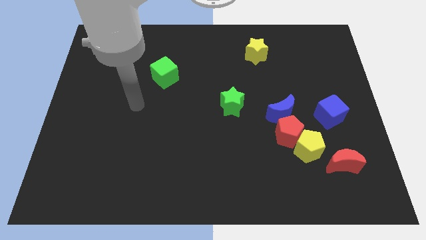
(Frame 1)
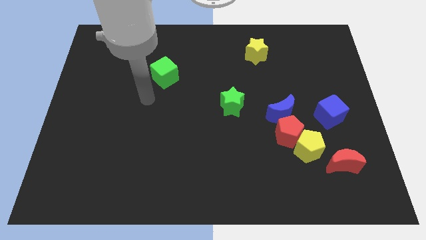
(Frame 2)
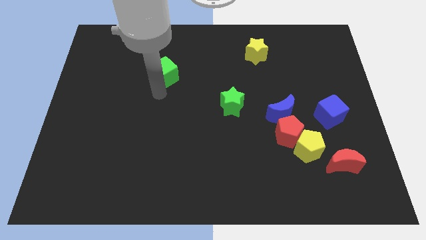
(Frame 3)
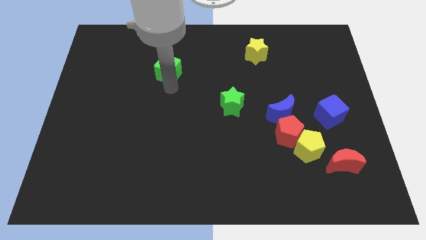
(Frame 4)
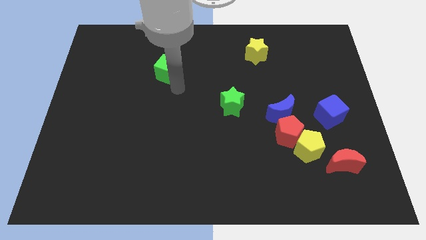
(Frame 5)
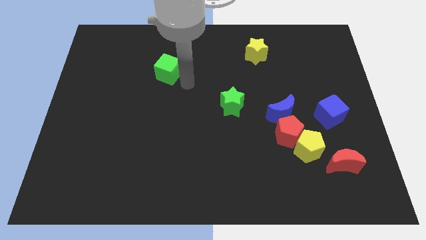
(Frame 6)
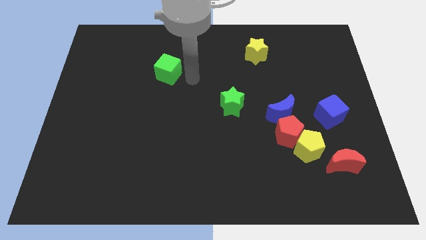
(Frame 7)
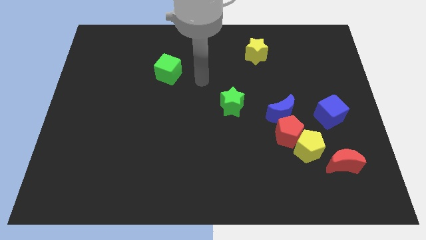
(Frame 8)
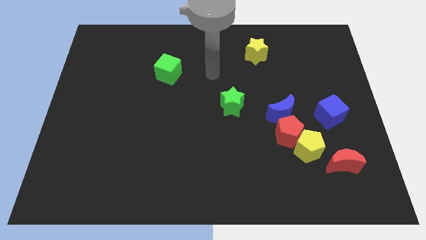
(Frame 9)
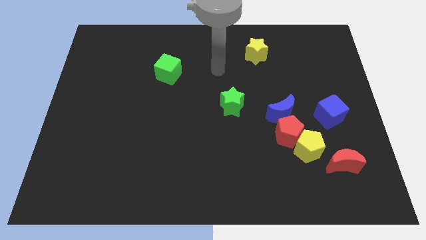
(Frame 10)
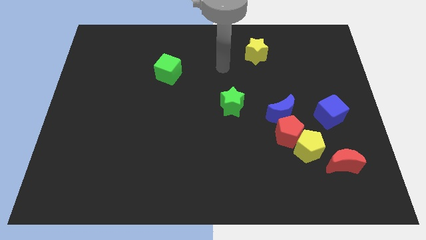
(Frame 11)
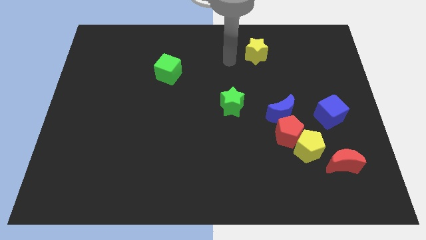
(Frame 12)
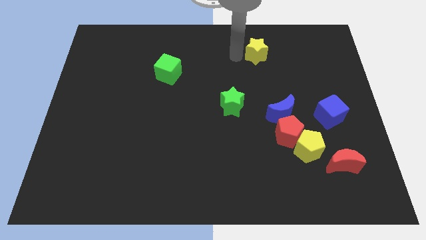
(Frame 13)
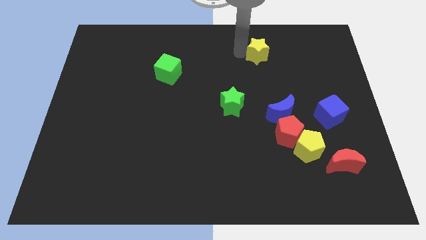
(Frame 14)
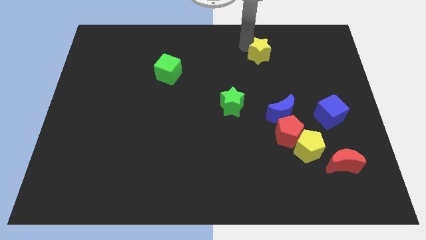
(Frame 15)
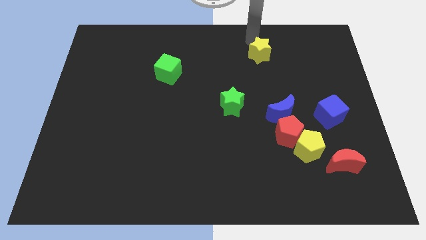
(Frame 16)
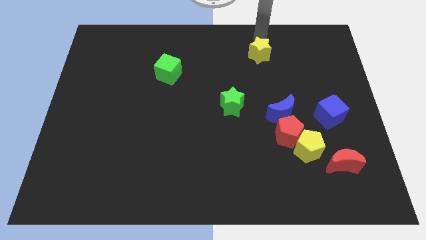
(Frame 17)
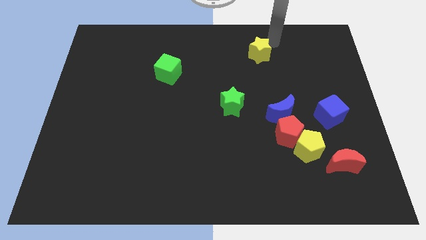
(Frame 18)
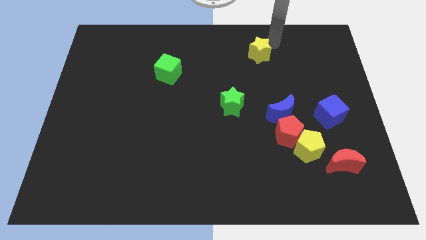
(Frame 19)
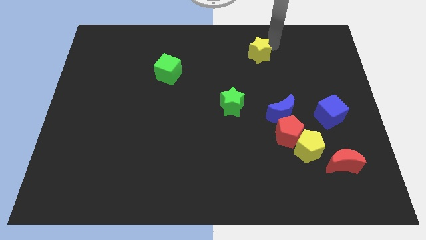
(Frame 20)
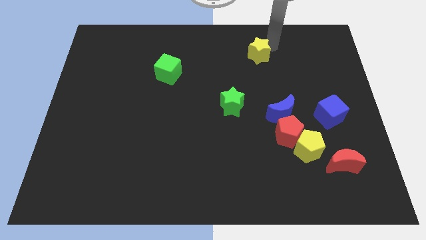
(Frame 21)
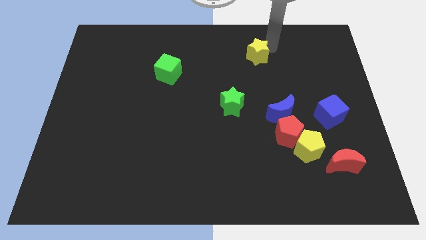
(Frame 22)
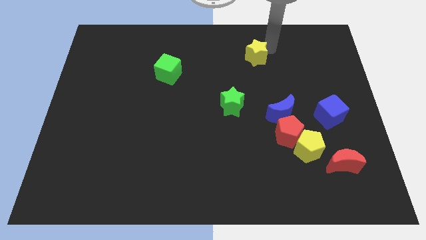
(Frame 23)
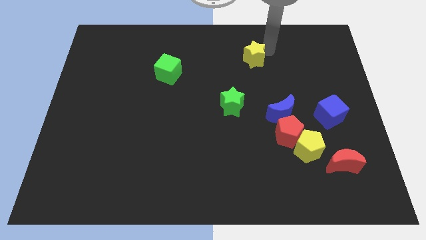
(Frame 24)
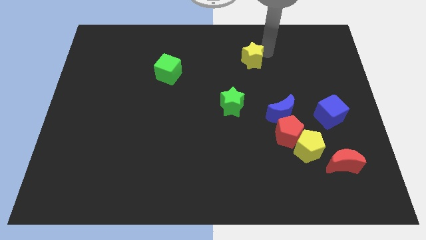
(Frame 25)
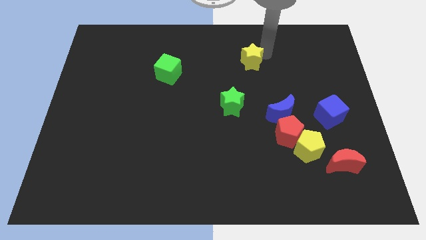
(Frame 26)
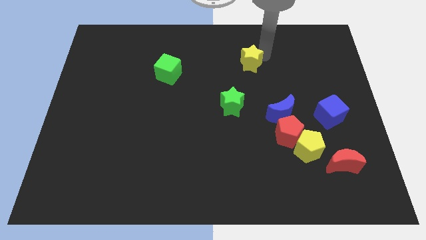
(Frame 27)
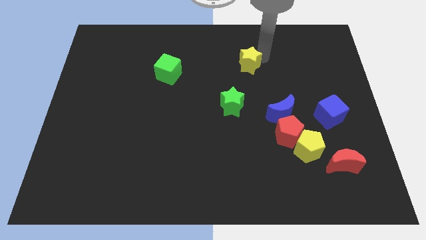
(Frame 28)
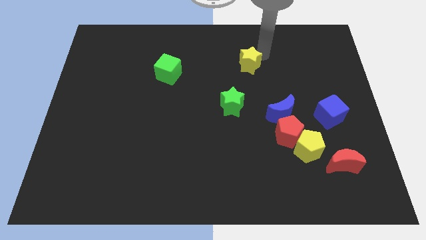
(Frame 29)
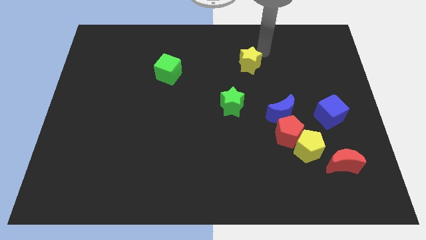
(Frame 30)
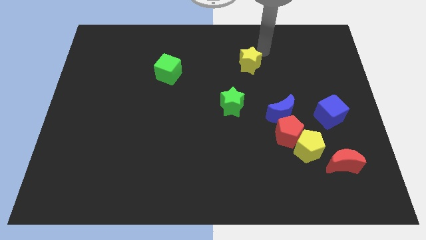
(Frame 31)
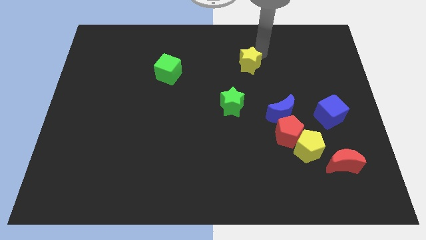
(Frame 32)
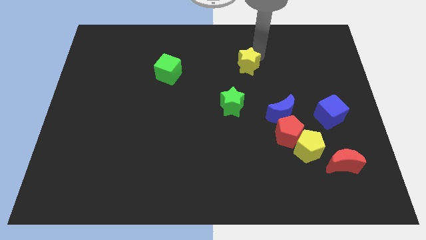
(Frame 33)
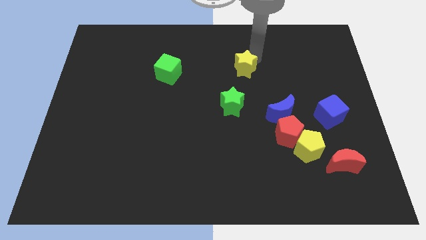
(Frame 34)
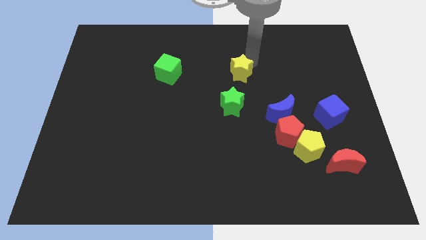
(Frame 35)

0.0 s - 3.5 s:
slightly move the yellow star down and left diagonally

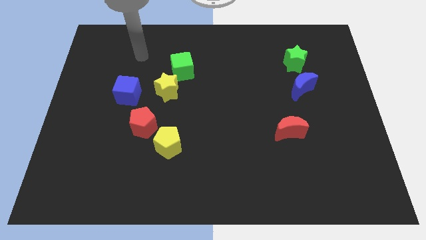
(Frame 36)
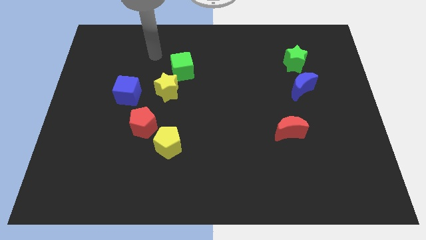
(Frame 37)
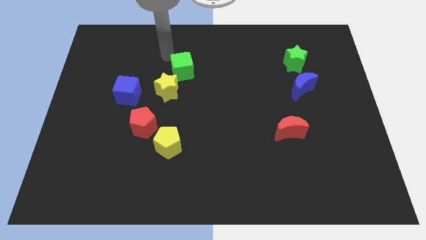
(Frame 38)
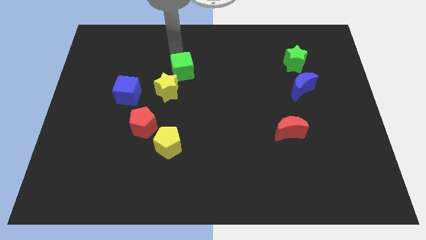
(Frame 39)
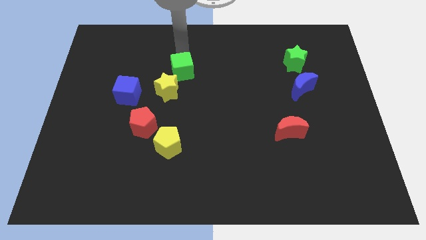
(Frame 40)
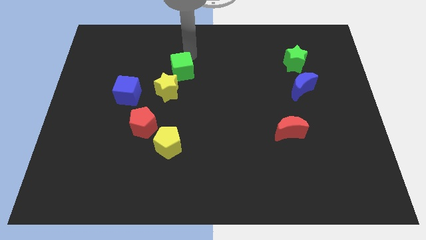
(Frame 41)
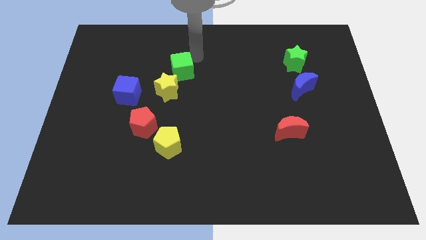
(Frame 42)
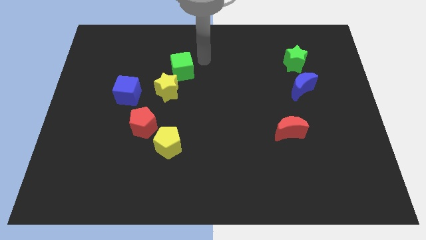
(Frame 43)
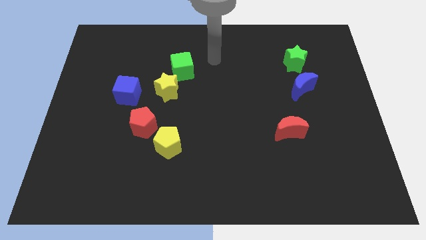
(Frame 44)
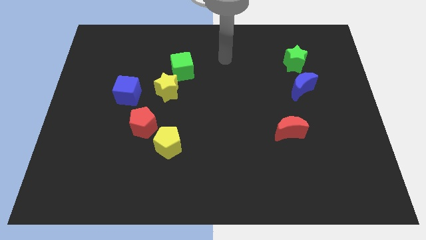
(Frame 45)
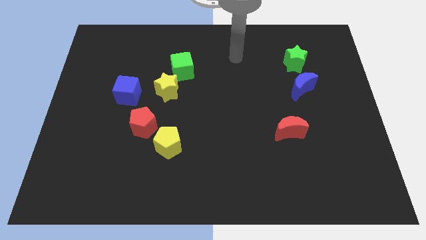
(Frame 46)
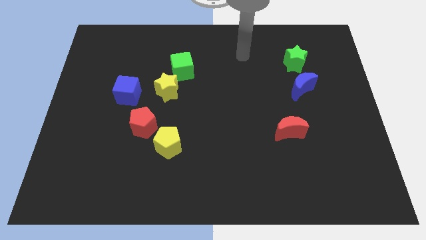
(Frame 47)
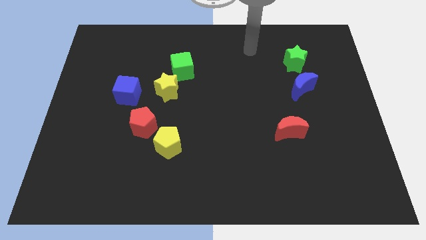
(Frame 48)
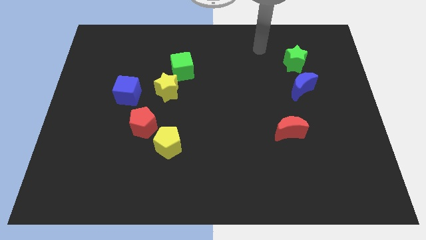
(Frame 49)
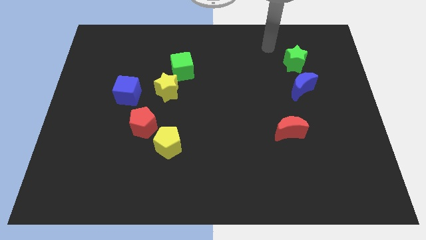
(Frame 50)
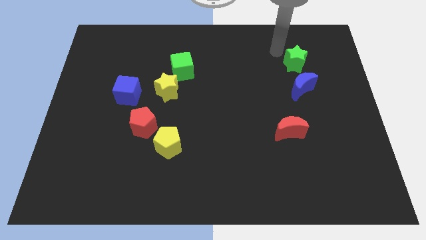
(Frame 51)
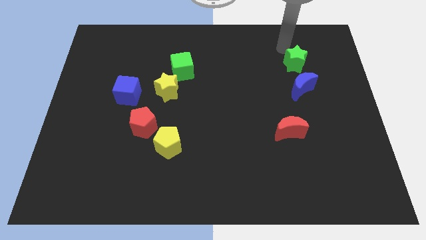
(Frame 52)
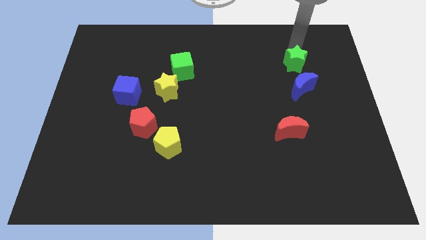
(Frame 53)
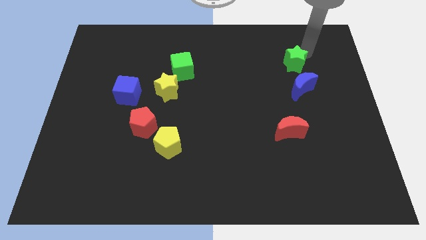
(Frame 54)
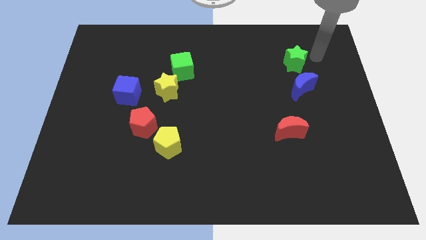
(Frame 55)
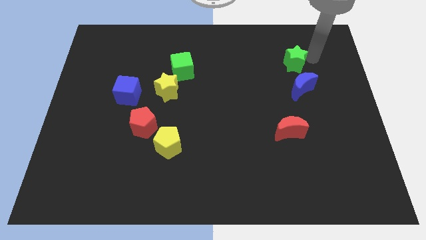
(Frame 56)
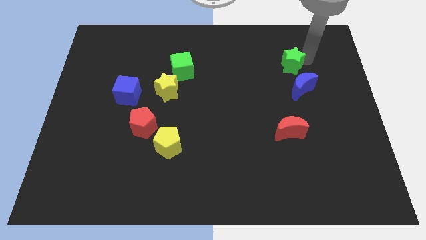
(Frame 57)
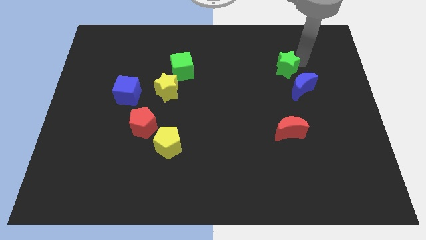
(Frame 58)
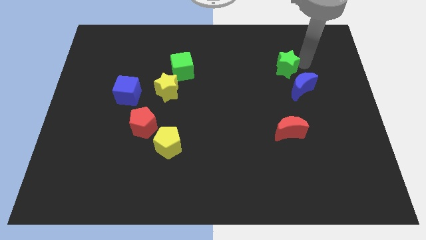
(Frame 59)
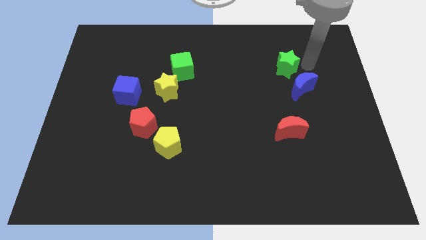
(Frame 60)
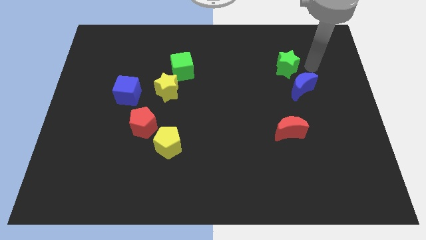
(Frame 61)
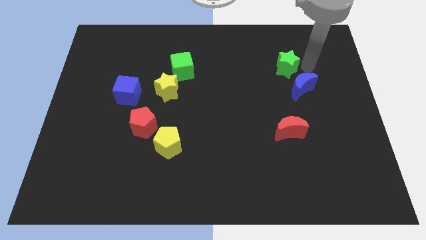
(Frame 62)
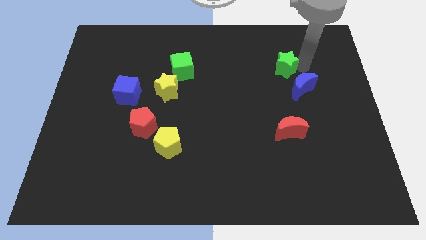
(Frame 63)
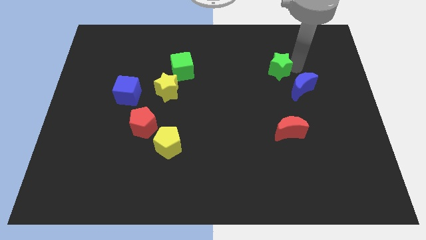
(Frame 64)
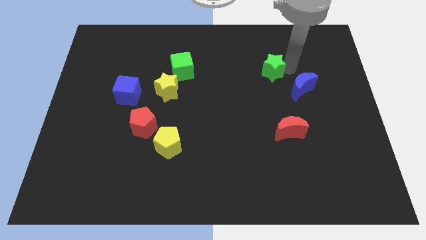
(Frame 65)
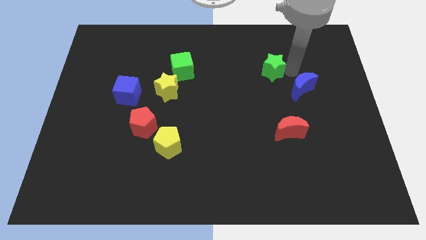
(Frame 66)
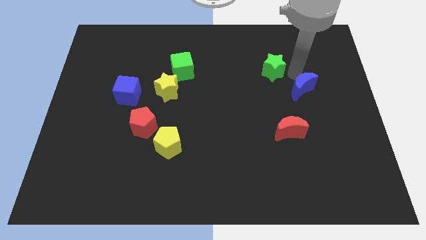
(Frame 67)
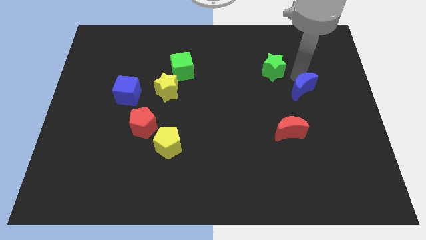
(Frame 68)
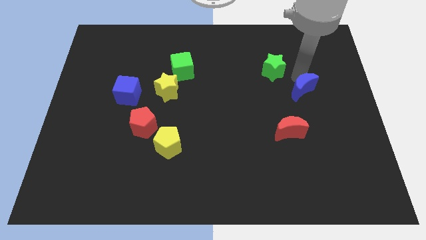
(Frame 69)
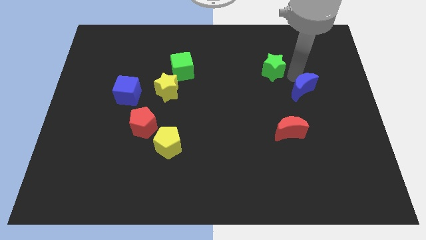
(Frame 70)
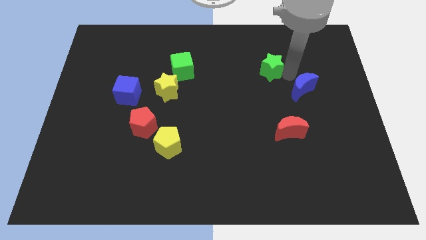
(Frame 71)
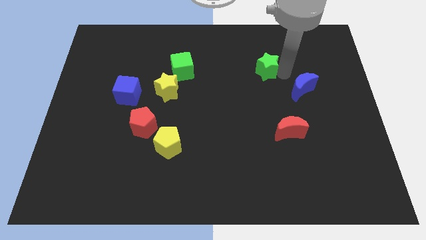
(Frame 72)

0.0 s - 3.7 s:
slightly slide the green star to the left

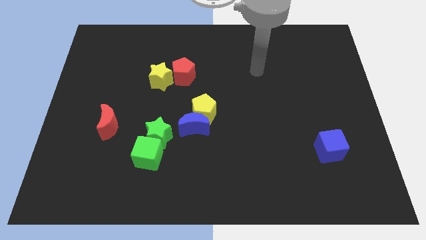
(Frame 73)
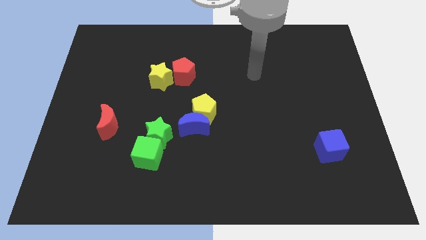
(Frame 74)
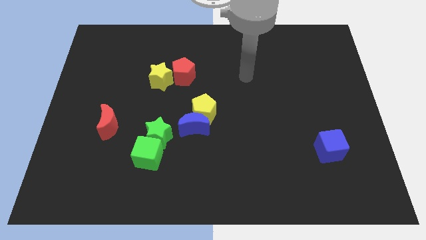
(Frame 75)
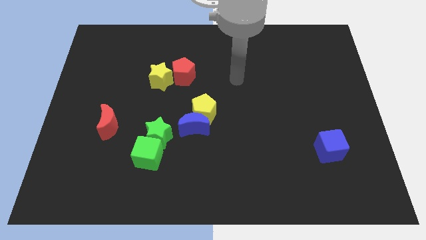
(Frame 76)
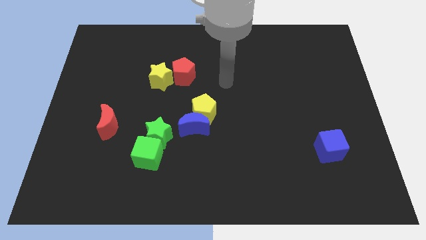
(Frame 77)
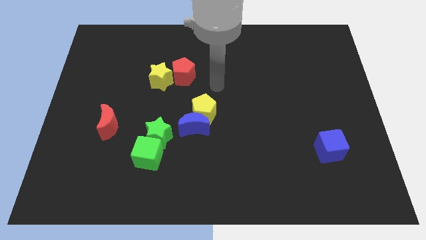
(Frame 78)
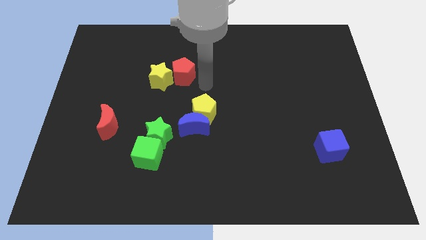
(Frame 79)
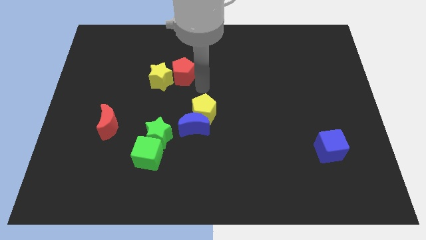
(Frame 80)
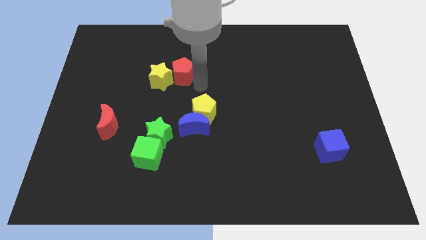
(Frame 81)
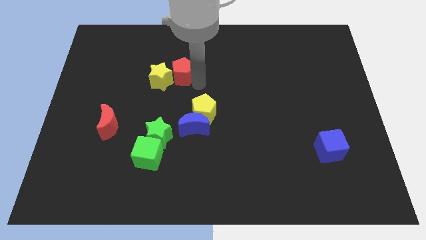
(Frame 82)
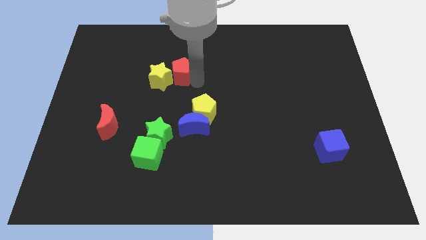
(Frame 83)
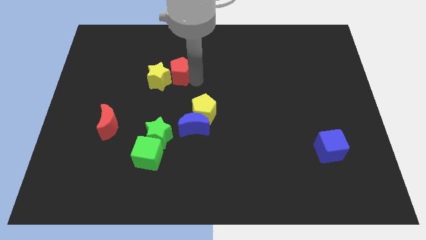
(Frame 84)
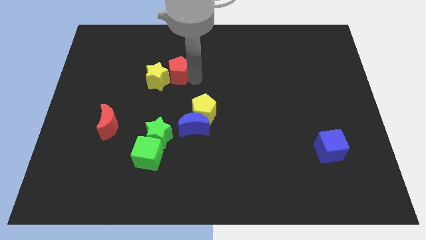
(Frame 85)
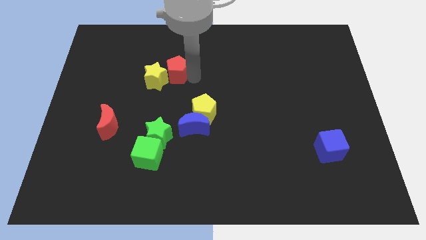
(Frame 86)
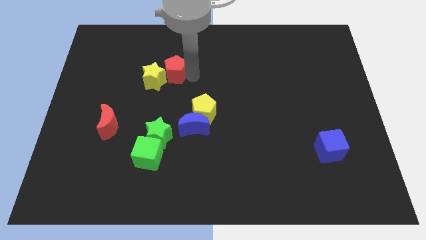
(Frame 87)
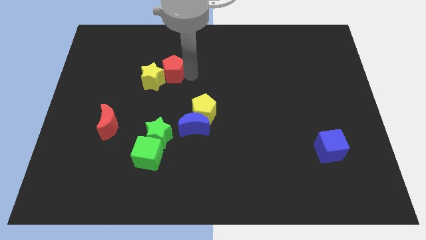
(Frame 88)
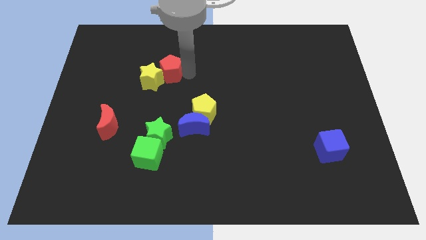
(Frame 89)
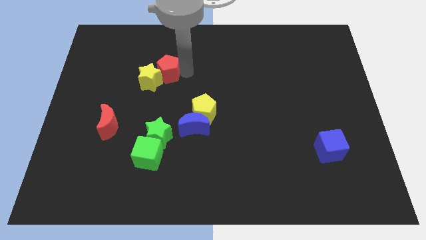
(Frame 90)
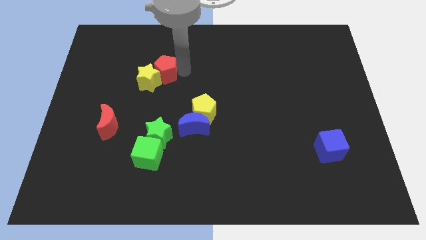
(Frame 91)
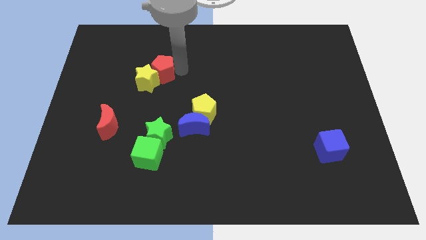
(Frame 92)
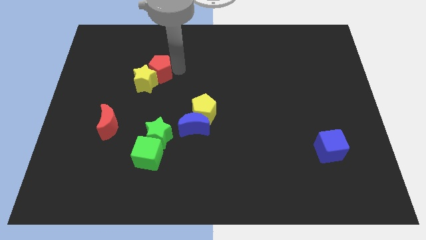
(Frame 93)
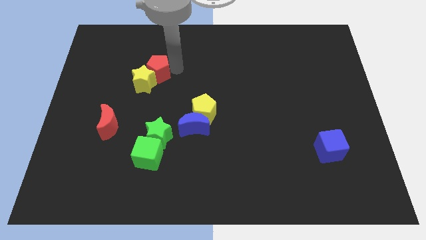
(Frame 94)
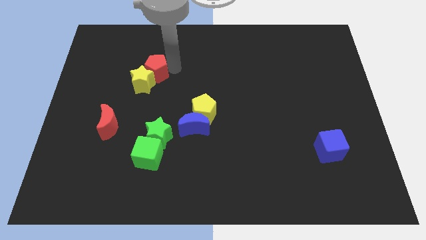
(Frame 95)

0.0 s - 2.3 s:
push the red pentagon a little bit left
